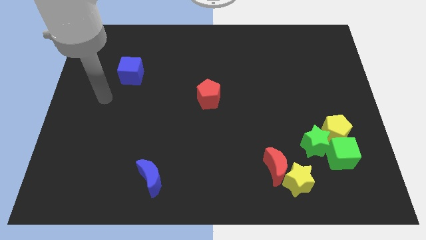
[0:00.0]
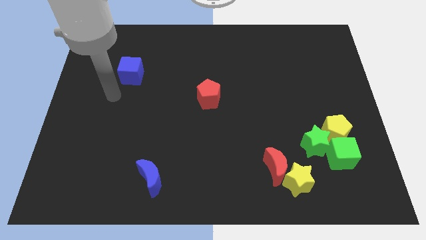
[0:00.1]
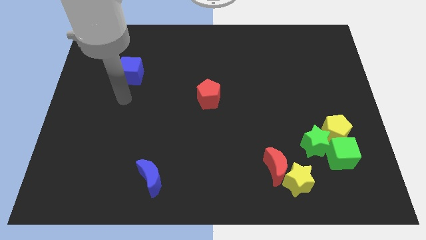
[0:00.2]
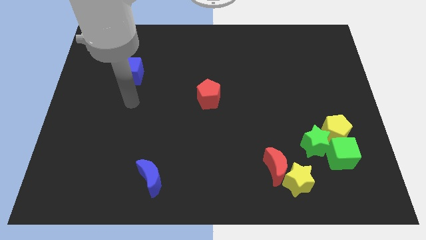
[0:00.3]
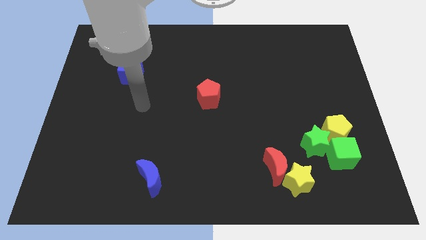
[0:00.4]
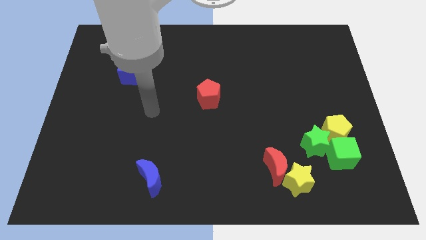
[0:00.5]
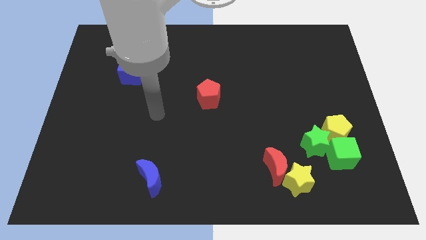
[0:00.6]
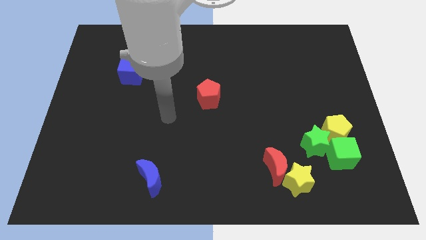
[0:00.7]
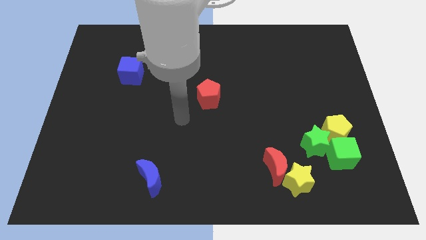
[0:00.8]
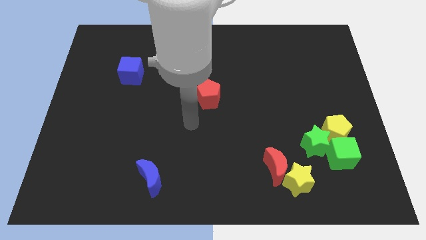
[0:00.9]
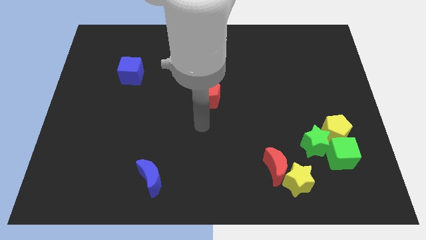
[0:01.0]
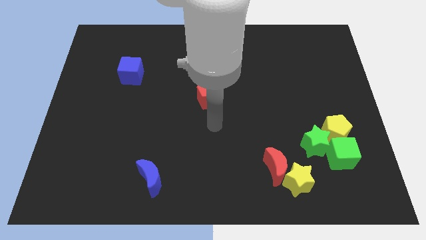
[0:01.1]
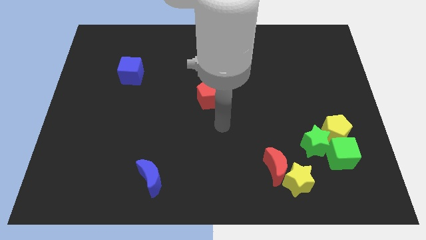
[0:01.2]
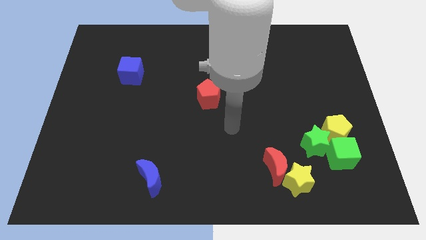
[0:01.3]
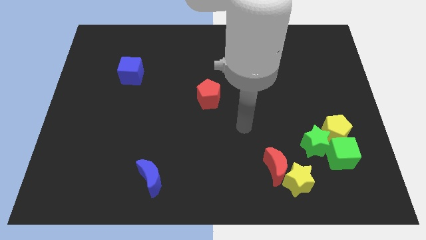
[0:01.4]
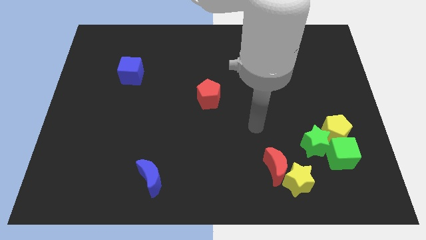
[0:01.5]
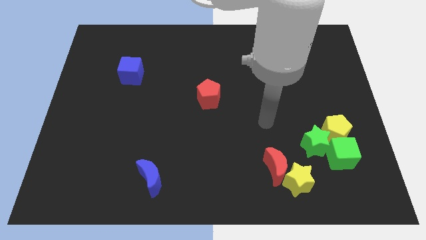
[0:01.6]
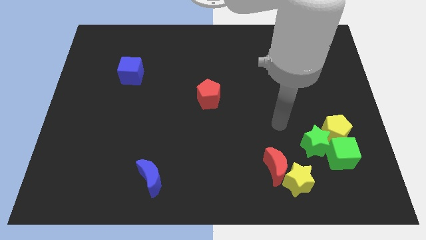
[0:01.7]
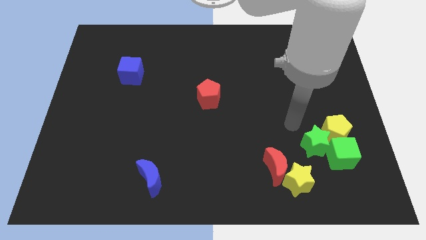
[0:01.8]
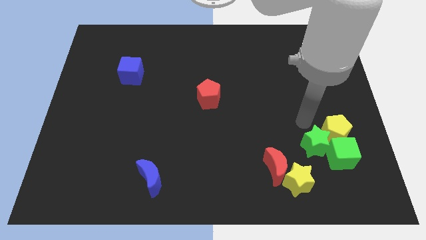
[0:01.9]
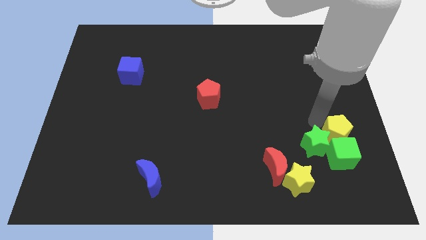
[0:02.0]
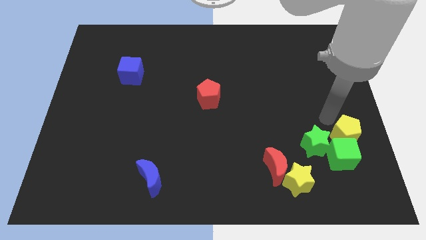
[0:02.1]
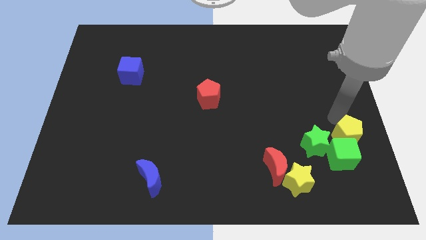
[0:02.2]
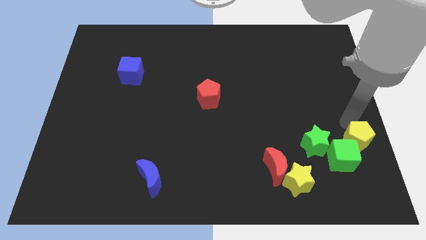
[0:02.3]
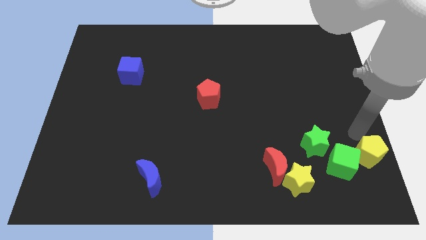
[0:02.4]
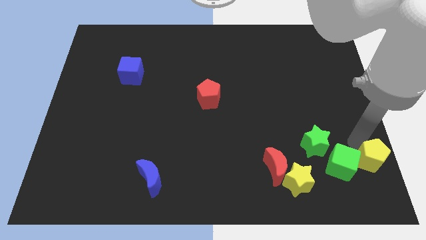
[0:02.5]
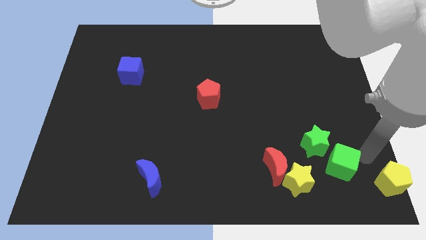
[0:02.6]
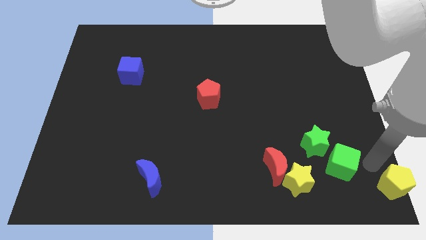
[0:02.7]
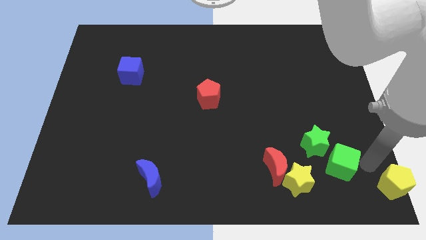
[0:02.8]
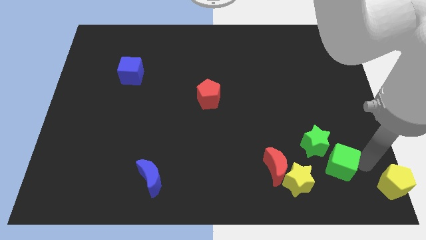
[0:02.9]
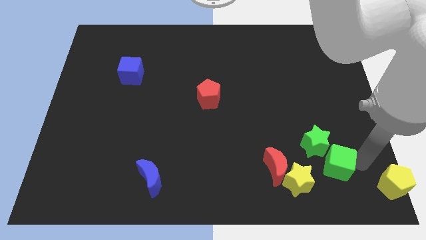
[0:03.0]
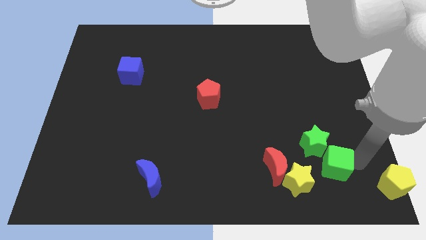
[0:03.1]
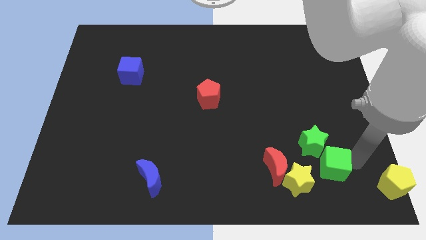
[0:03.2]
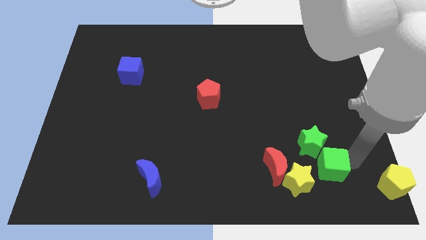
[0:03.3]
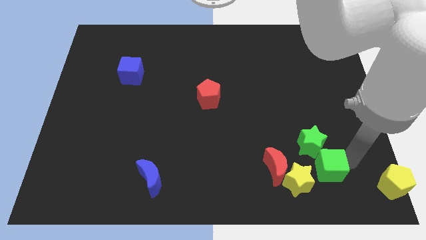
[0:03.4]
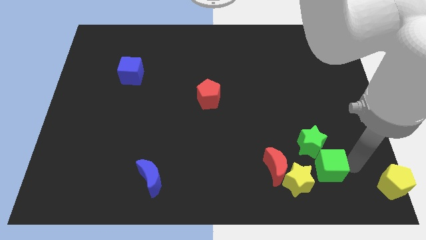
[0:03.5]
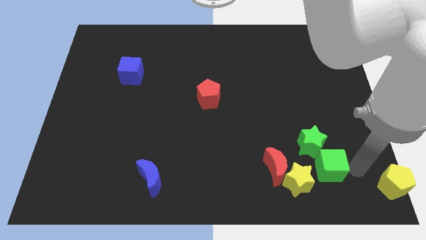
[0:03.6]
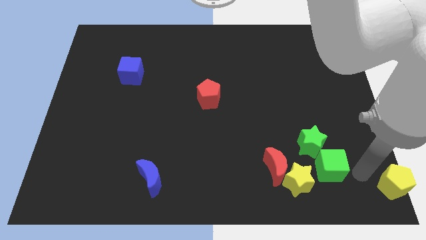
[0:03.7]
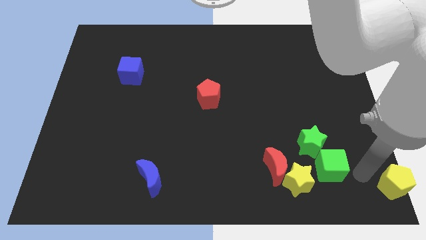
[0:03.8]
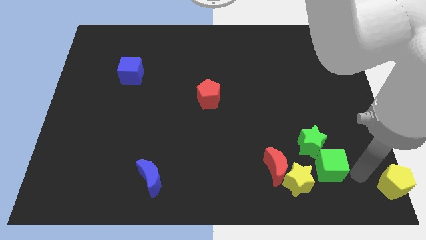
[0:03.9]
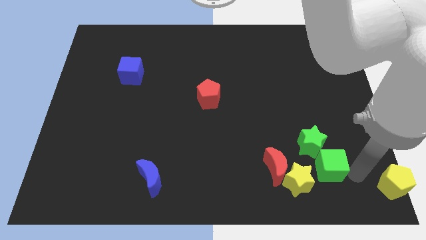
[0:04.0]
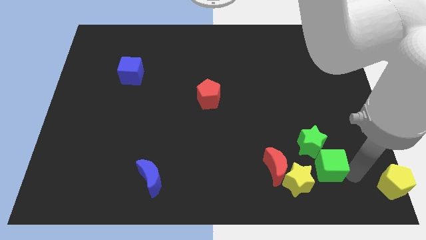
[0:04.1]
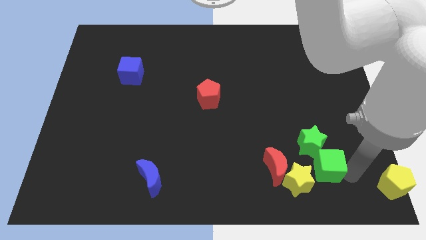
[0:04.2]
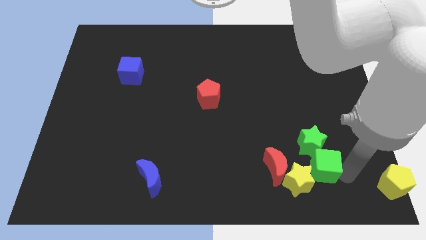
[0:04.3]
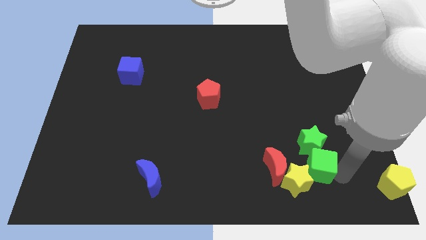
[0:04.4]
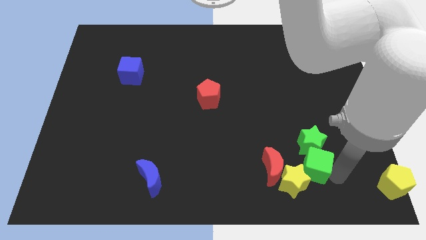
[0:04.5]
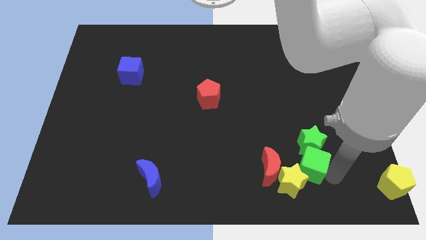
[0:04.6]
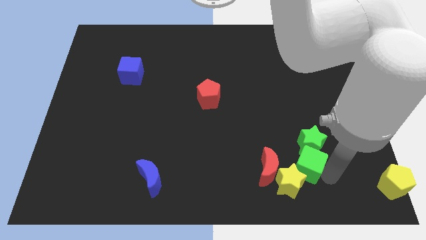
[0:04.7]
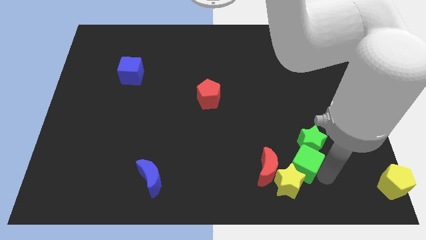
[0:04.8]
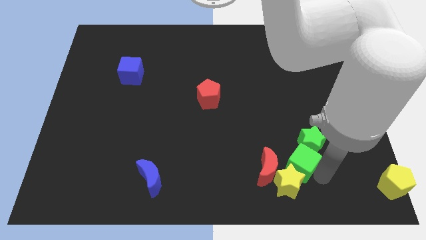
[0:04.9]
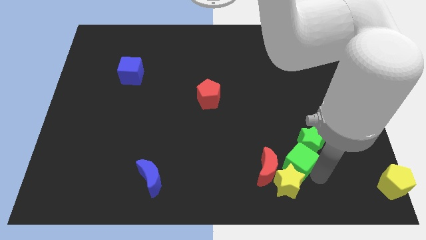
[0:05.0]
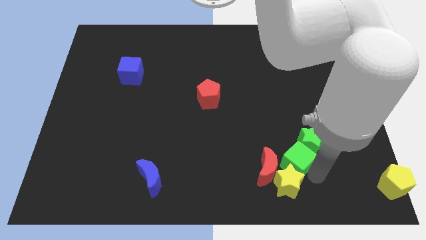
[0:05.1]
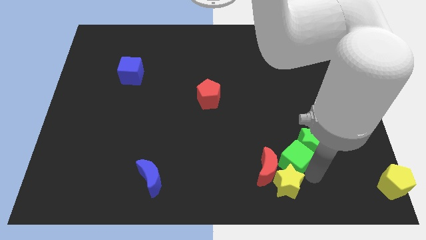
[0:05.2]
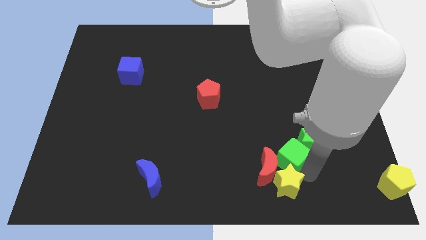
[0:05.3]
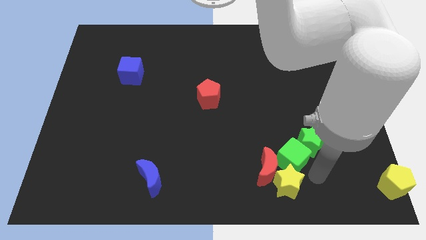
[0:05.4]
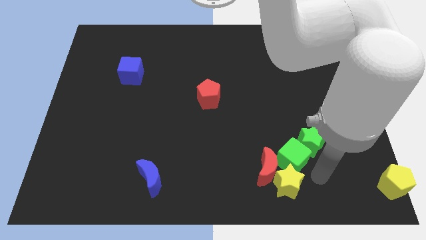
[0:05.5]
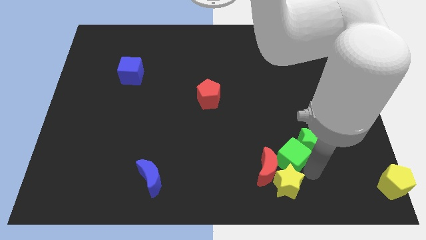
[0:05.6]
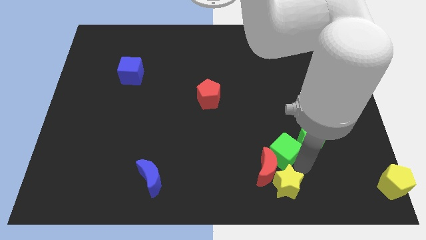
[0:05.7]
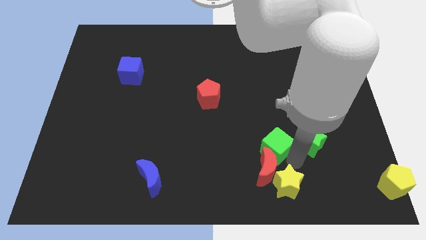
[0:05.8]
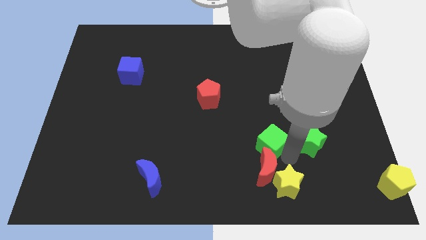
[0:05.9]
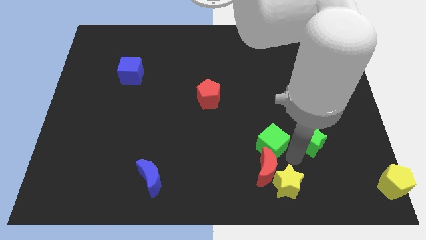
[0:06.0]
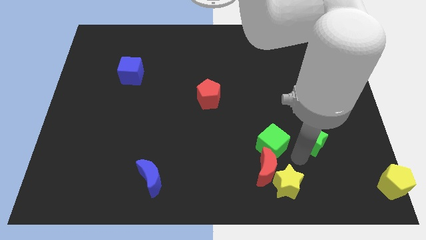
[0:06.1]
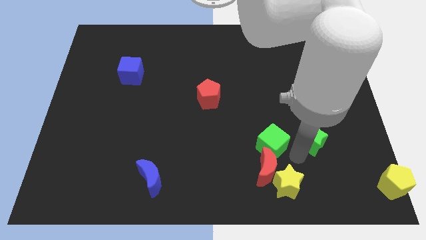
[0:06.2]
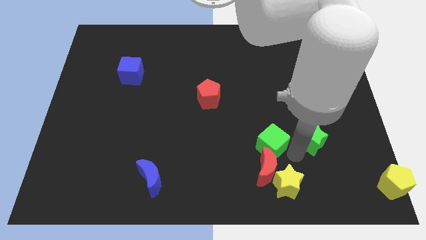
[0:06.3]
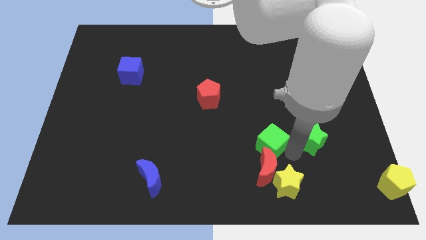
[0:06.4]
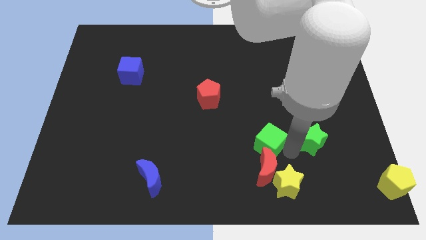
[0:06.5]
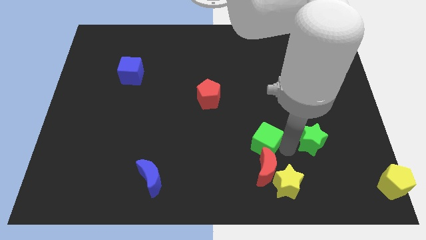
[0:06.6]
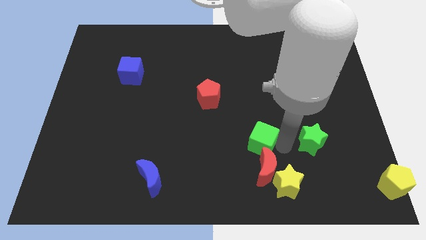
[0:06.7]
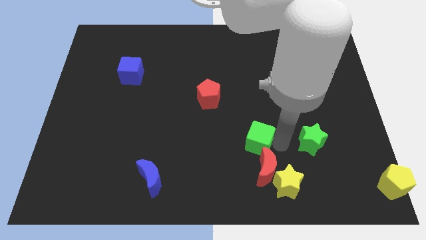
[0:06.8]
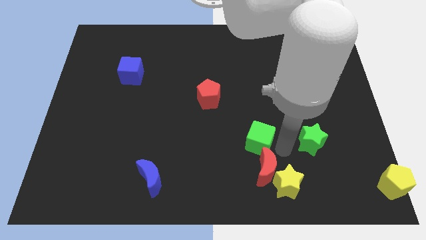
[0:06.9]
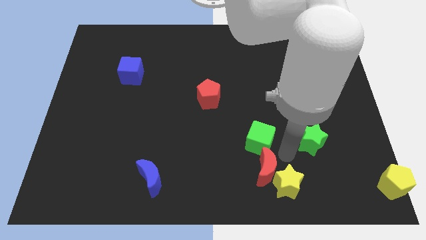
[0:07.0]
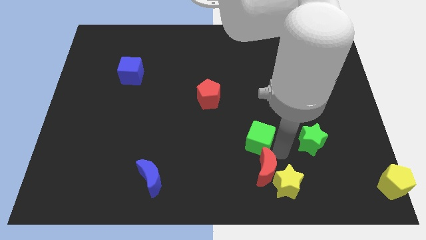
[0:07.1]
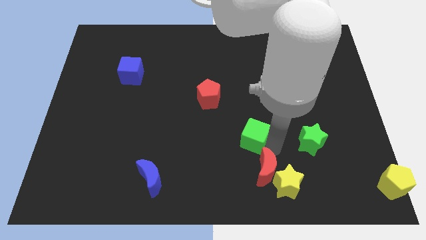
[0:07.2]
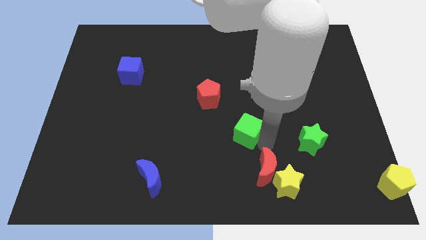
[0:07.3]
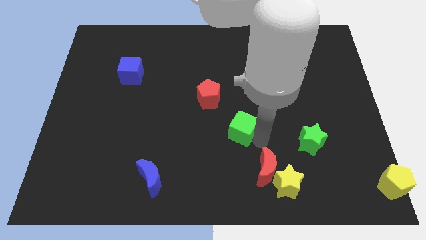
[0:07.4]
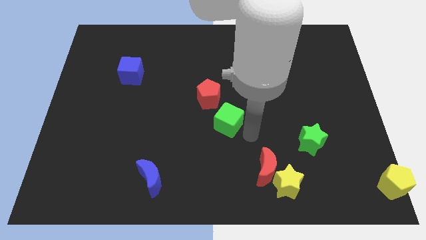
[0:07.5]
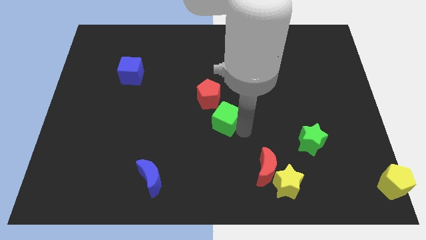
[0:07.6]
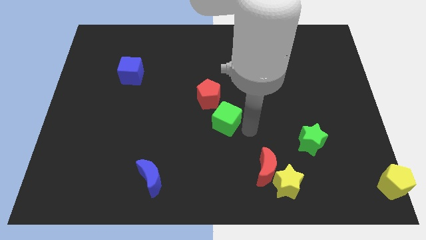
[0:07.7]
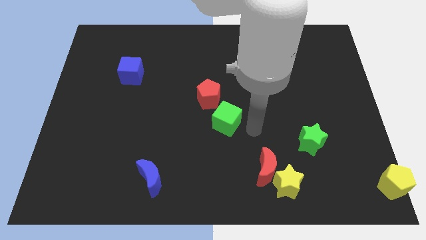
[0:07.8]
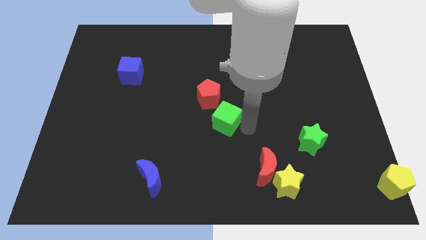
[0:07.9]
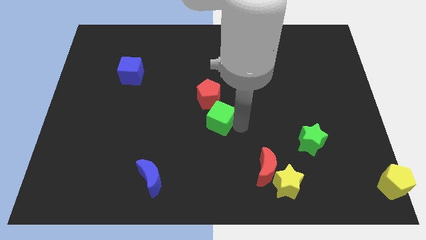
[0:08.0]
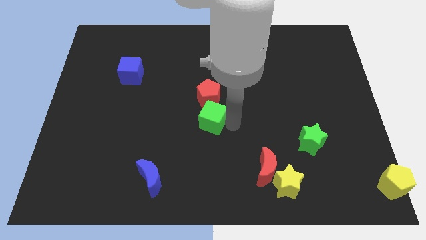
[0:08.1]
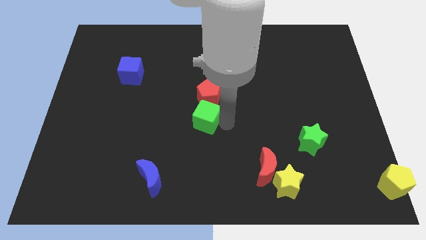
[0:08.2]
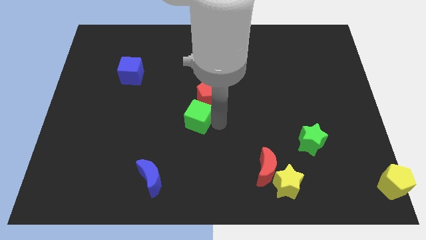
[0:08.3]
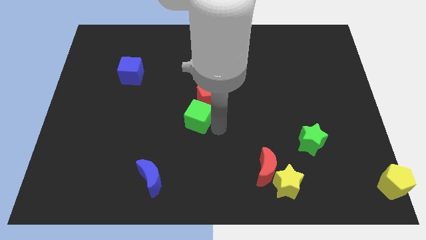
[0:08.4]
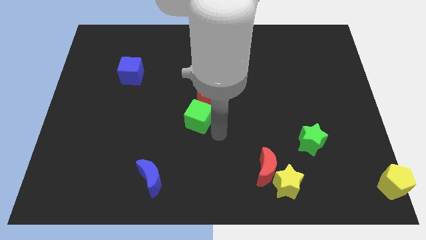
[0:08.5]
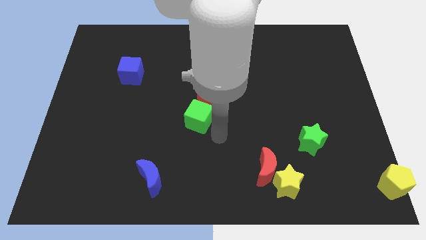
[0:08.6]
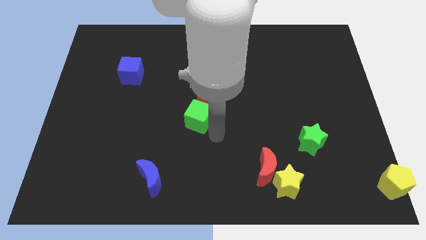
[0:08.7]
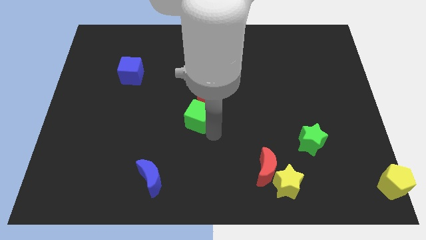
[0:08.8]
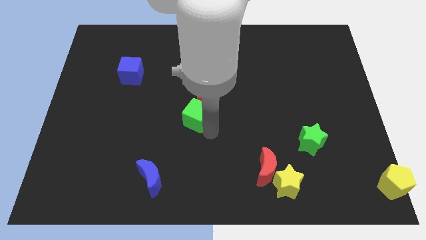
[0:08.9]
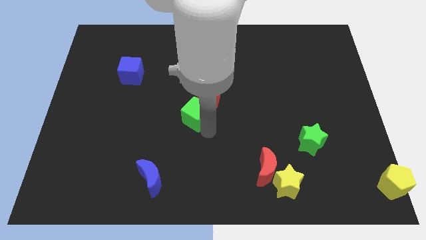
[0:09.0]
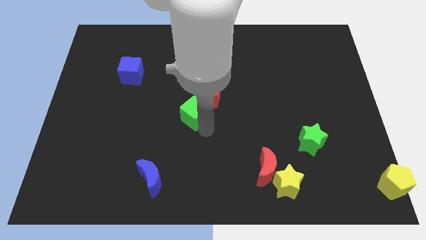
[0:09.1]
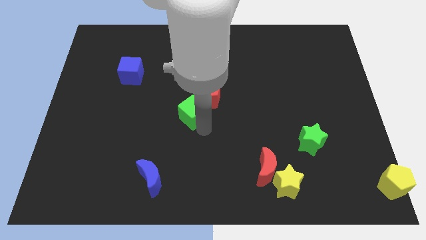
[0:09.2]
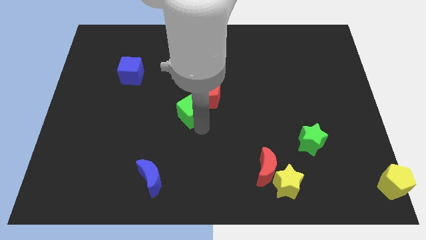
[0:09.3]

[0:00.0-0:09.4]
push the green cube left of the red pentagon
